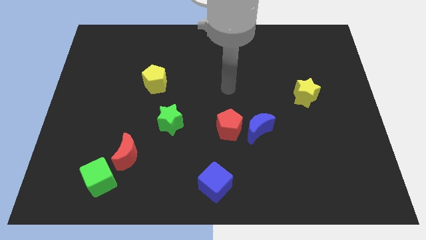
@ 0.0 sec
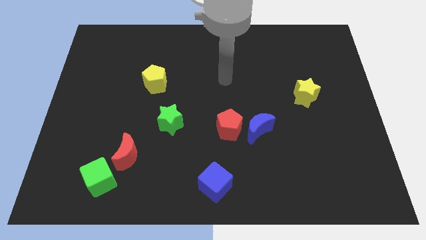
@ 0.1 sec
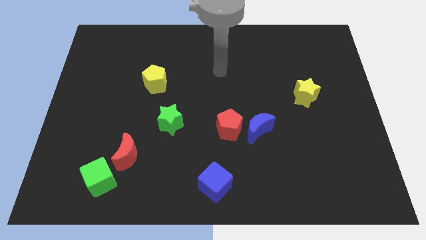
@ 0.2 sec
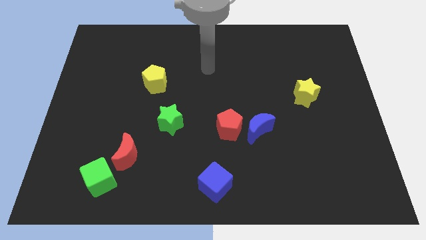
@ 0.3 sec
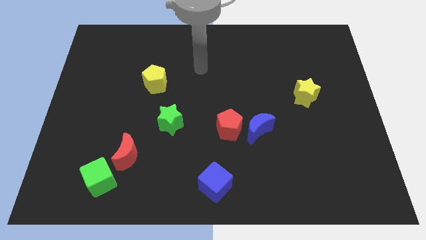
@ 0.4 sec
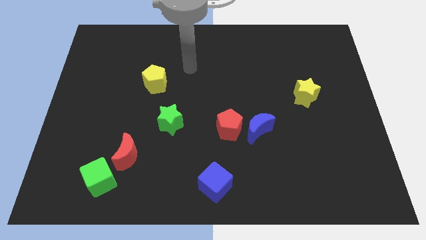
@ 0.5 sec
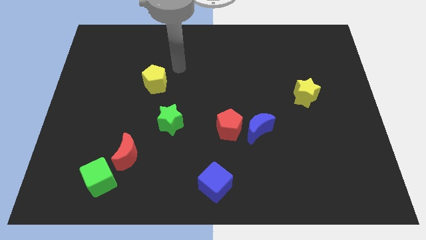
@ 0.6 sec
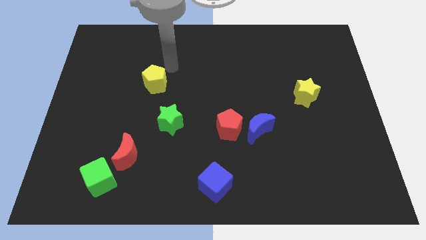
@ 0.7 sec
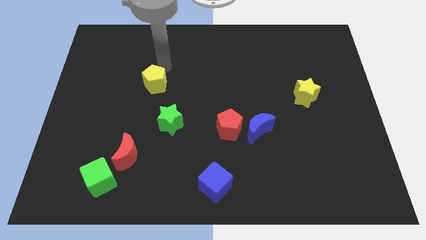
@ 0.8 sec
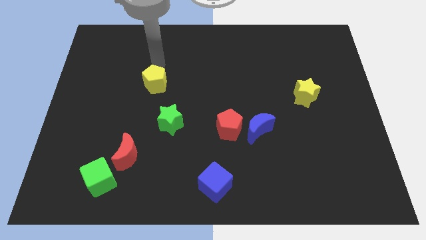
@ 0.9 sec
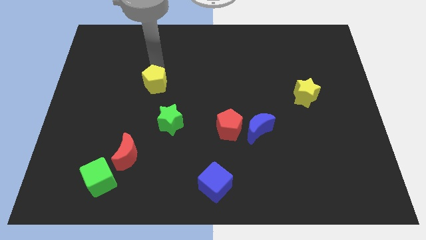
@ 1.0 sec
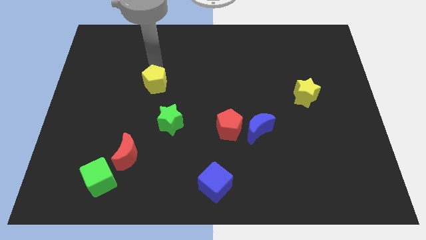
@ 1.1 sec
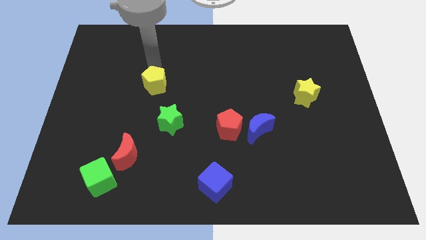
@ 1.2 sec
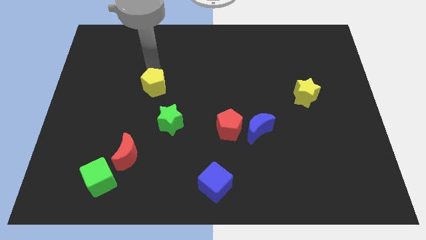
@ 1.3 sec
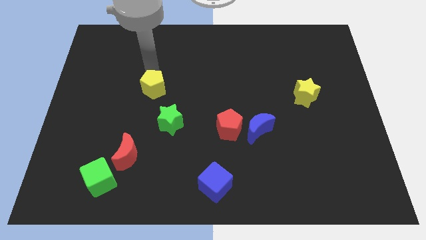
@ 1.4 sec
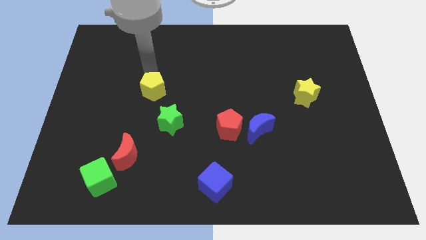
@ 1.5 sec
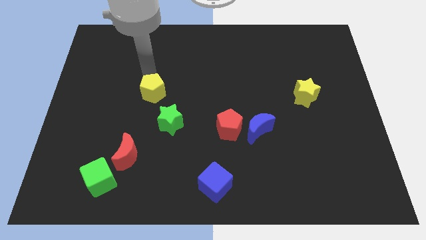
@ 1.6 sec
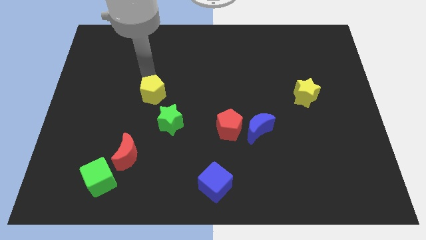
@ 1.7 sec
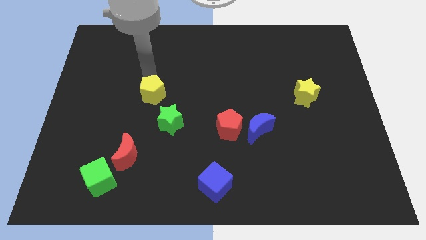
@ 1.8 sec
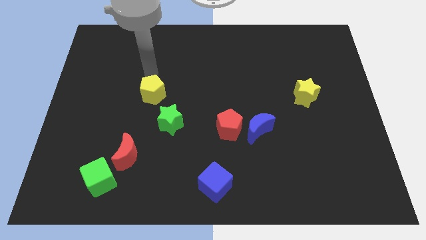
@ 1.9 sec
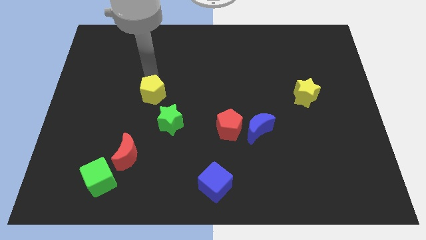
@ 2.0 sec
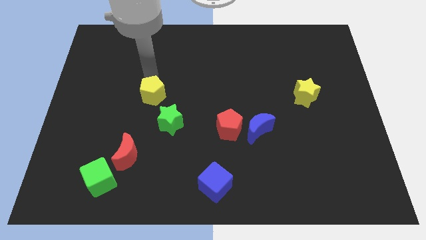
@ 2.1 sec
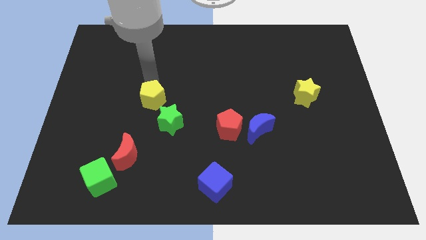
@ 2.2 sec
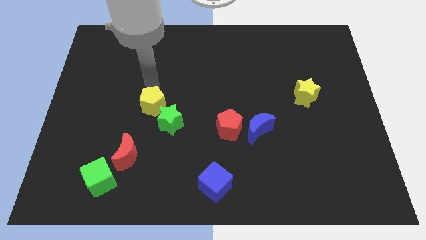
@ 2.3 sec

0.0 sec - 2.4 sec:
slightly push the yellow pentagon down

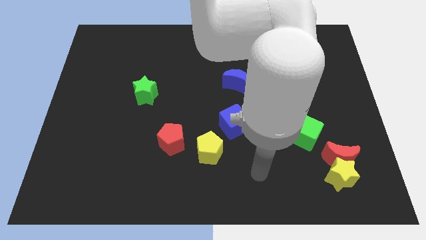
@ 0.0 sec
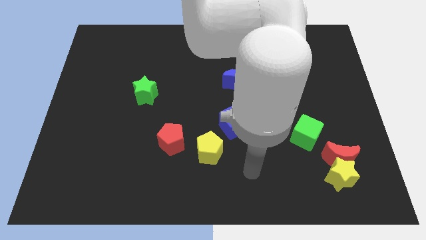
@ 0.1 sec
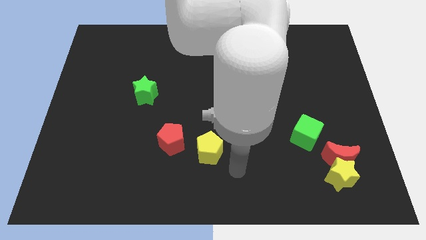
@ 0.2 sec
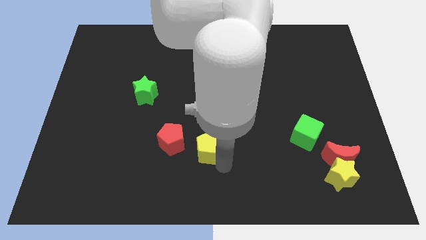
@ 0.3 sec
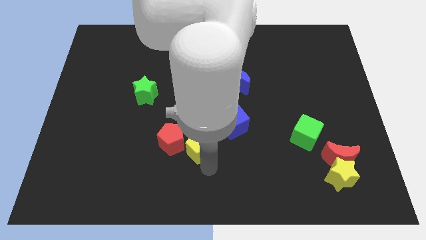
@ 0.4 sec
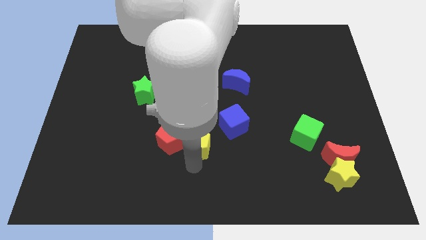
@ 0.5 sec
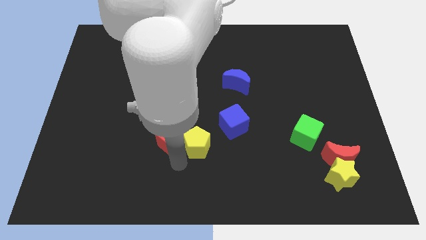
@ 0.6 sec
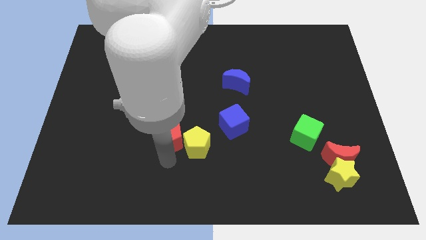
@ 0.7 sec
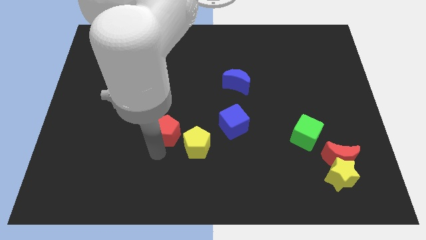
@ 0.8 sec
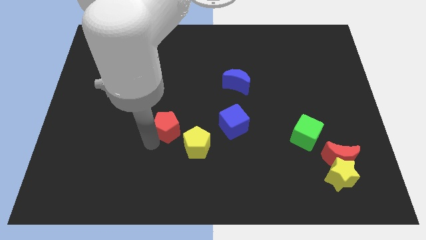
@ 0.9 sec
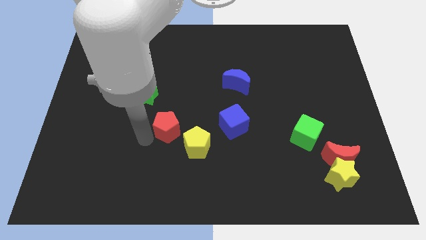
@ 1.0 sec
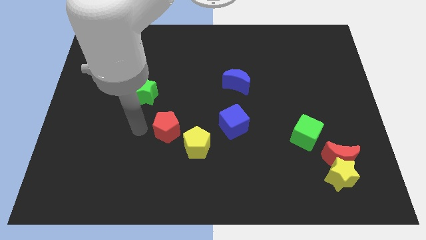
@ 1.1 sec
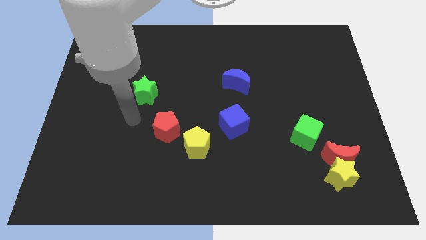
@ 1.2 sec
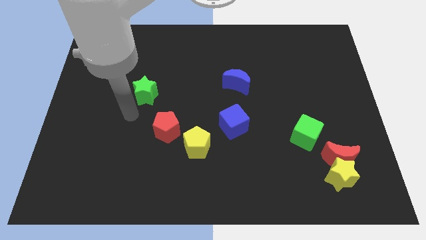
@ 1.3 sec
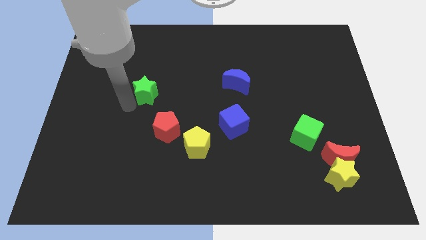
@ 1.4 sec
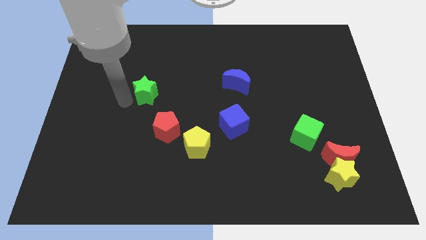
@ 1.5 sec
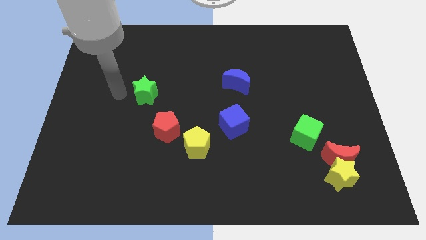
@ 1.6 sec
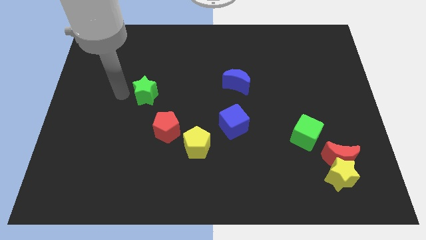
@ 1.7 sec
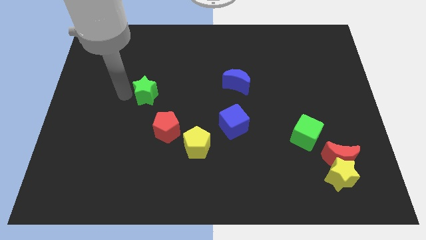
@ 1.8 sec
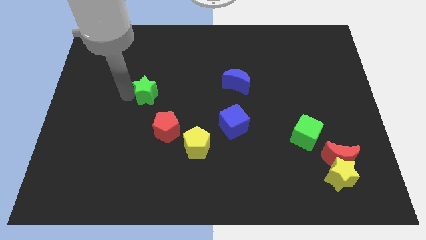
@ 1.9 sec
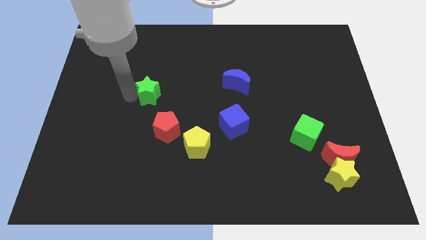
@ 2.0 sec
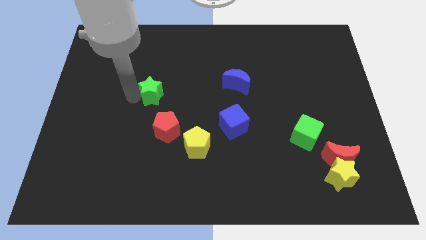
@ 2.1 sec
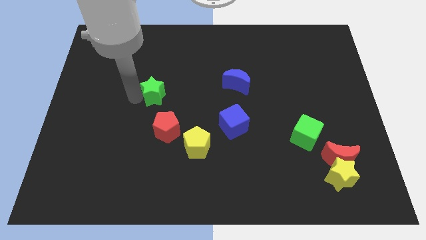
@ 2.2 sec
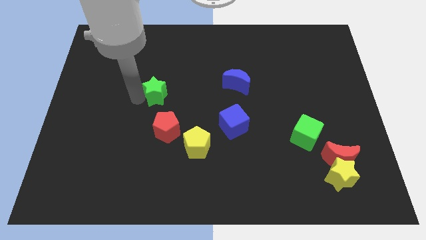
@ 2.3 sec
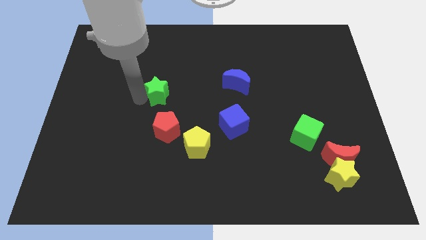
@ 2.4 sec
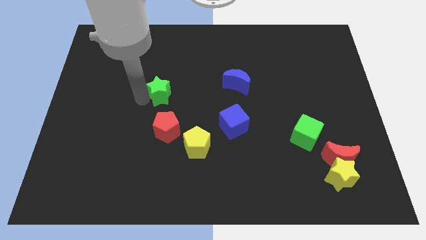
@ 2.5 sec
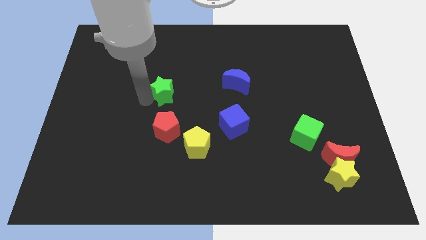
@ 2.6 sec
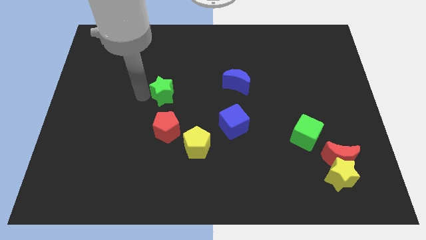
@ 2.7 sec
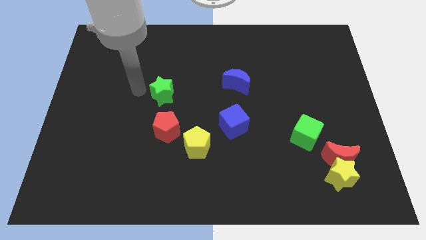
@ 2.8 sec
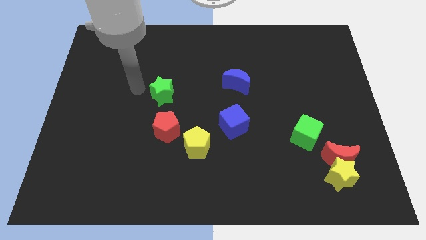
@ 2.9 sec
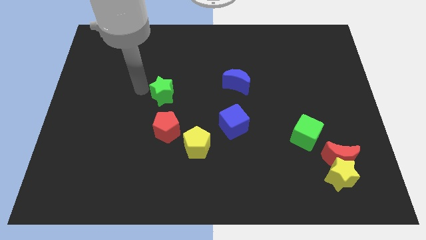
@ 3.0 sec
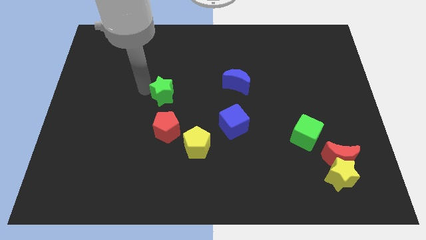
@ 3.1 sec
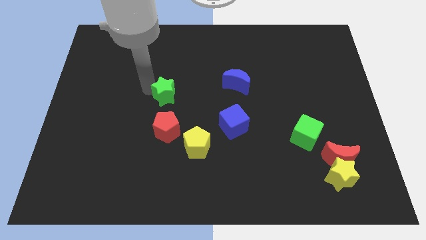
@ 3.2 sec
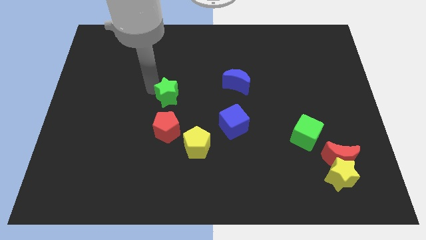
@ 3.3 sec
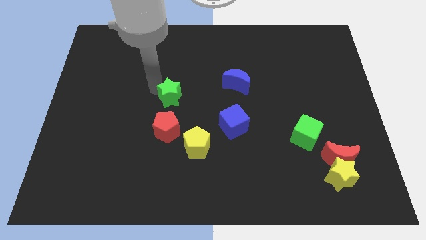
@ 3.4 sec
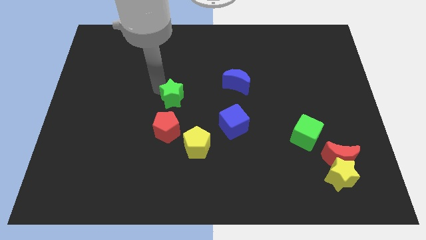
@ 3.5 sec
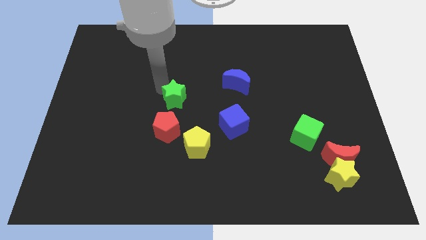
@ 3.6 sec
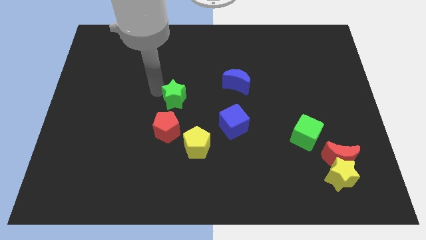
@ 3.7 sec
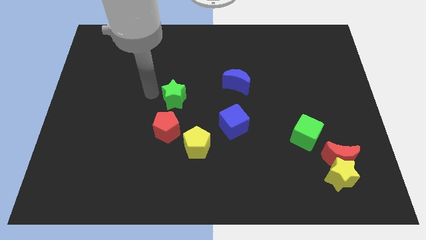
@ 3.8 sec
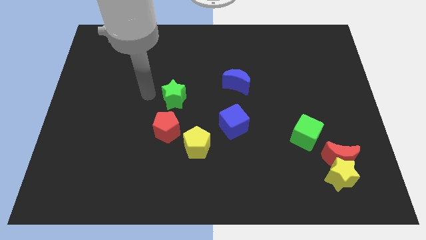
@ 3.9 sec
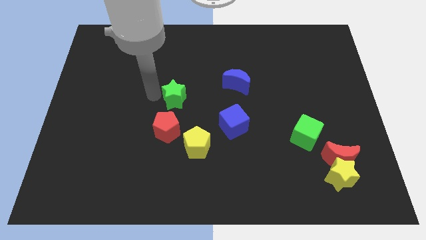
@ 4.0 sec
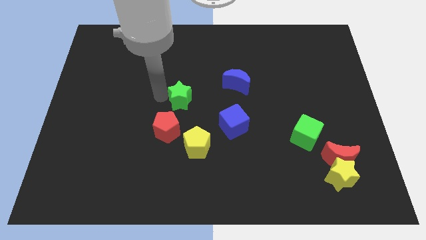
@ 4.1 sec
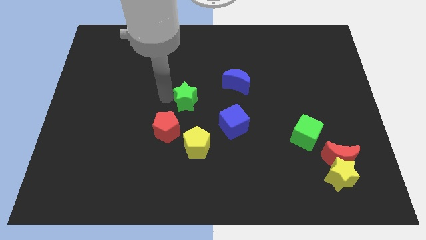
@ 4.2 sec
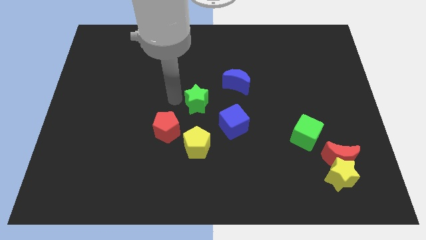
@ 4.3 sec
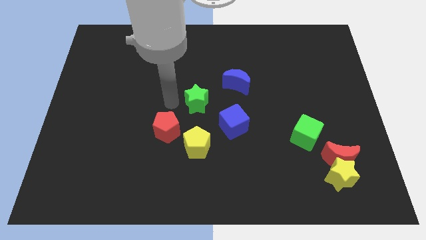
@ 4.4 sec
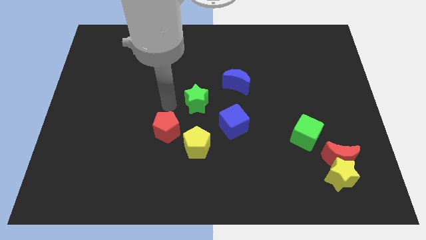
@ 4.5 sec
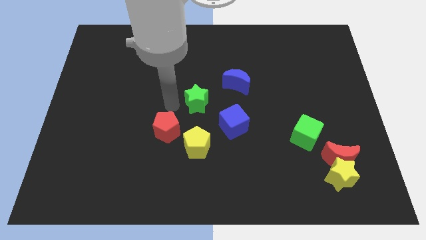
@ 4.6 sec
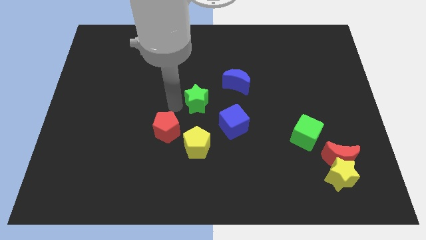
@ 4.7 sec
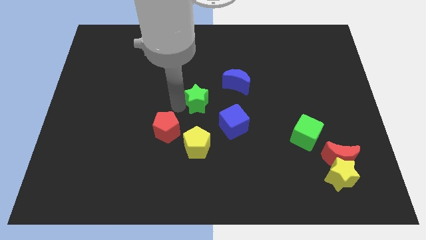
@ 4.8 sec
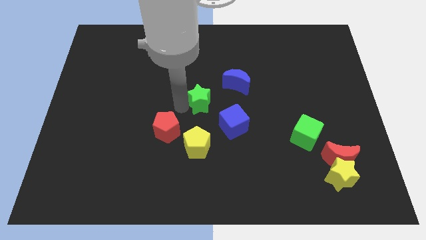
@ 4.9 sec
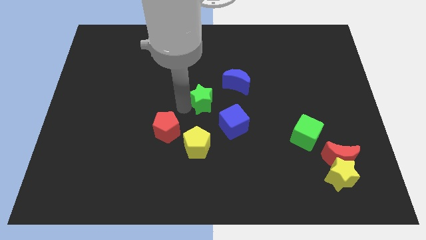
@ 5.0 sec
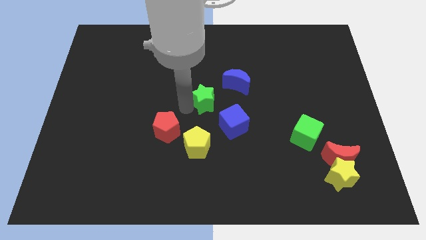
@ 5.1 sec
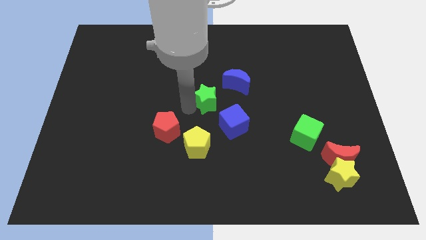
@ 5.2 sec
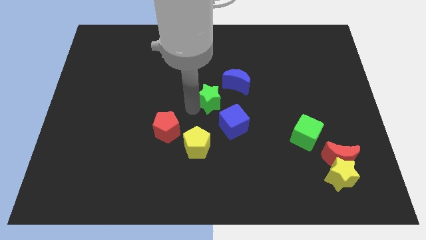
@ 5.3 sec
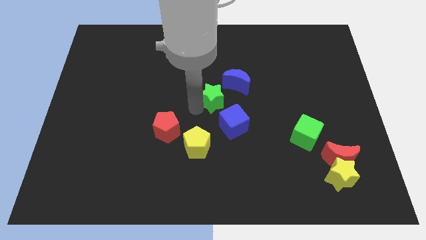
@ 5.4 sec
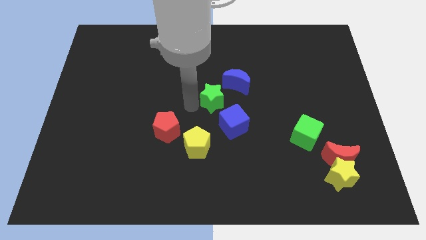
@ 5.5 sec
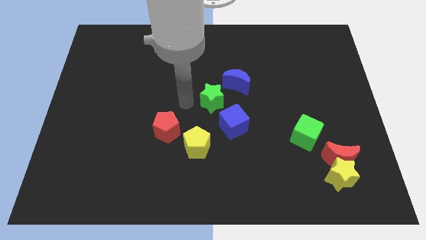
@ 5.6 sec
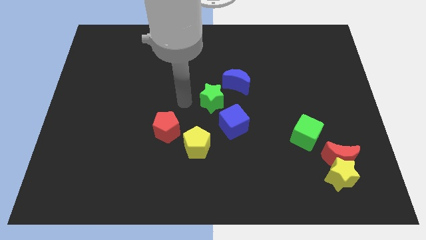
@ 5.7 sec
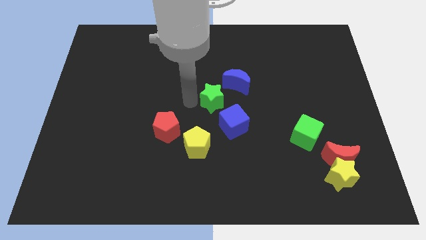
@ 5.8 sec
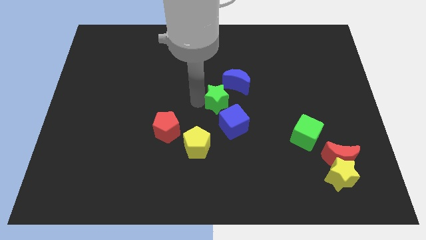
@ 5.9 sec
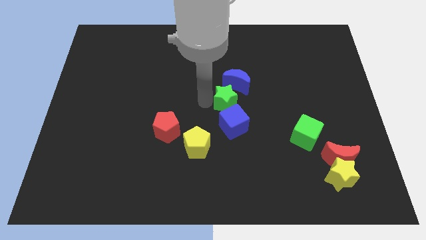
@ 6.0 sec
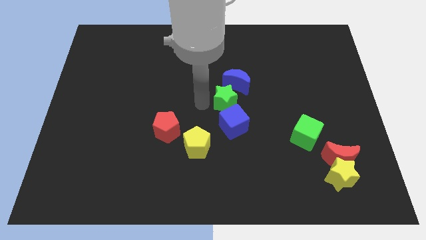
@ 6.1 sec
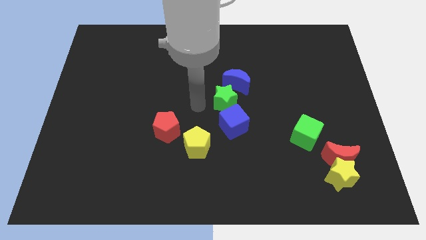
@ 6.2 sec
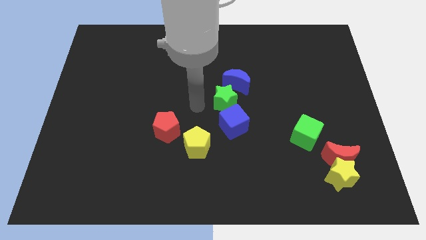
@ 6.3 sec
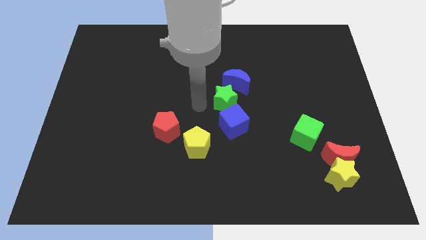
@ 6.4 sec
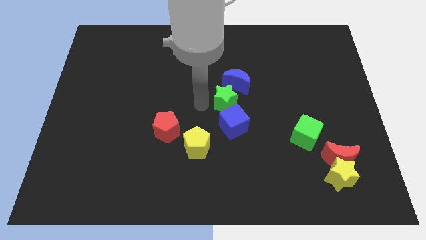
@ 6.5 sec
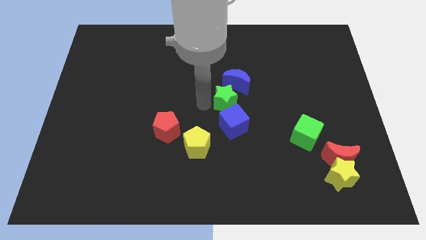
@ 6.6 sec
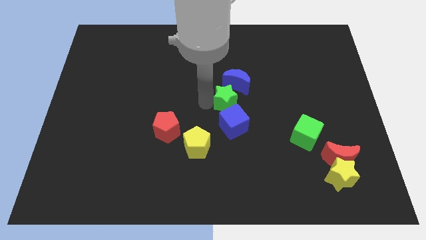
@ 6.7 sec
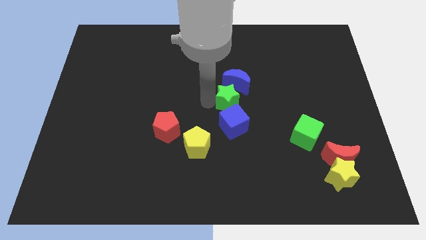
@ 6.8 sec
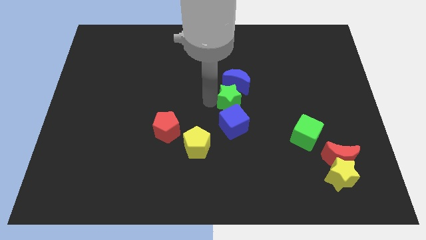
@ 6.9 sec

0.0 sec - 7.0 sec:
move the green star to the right
